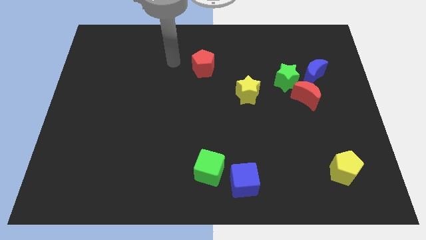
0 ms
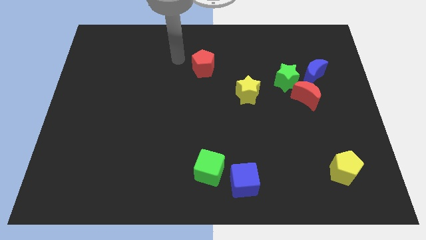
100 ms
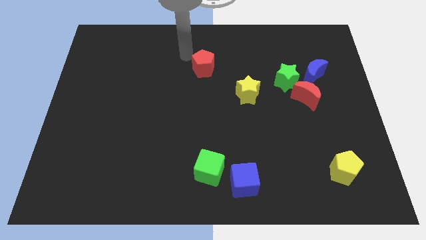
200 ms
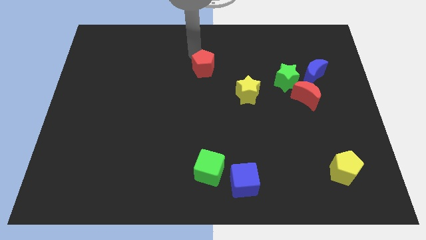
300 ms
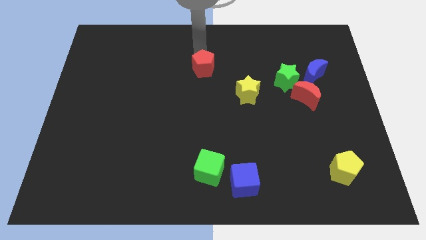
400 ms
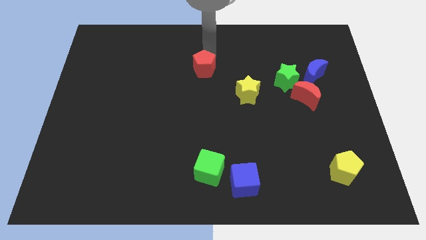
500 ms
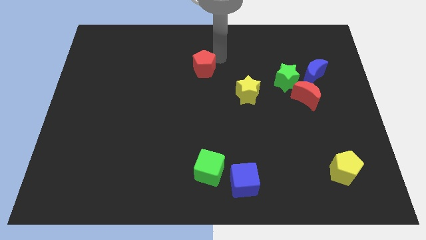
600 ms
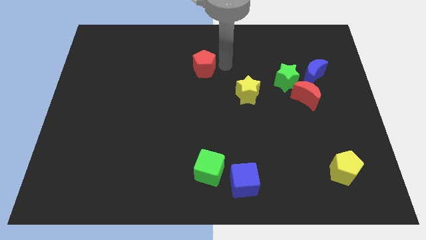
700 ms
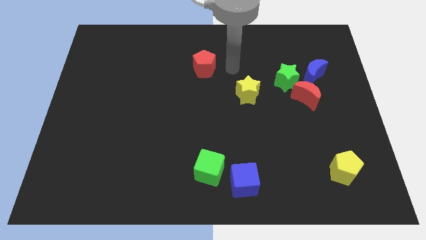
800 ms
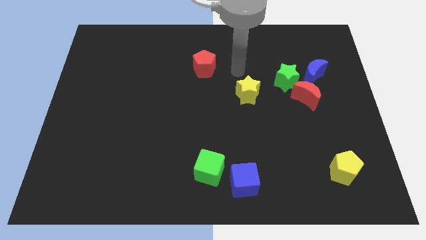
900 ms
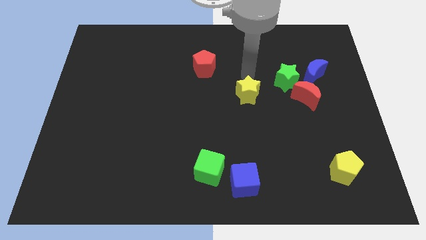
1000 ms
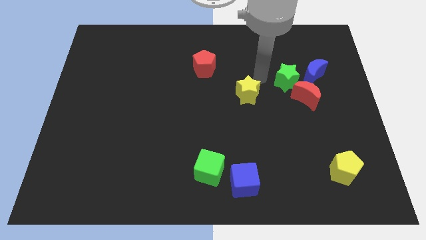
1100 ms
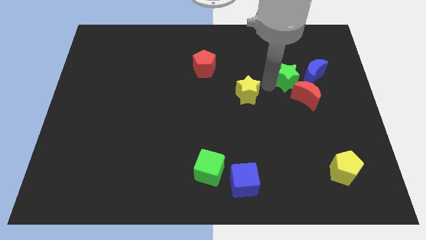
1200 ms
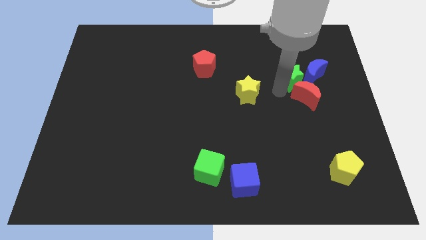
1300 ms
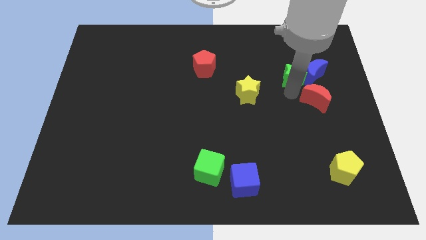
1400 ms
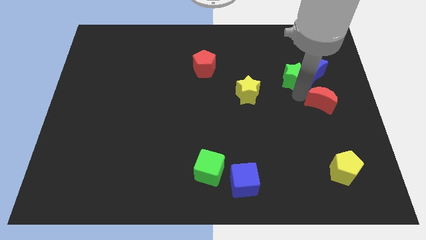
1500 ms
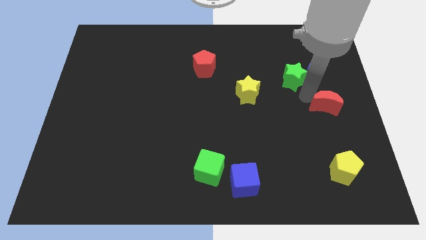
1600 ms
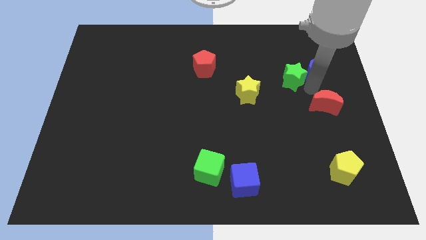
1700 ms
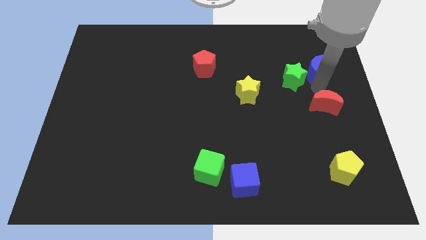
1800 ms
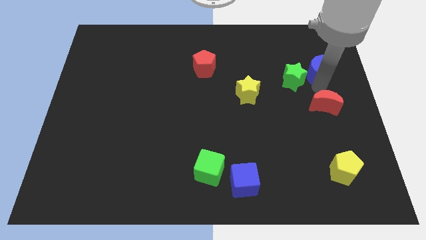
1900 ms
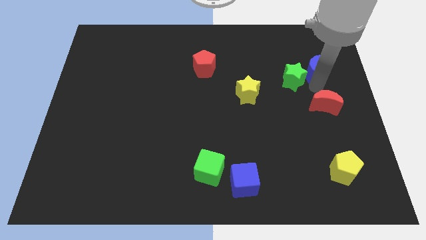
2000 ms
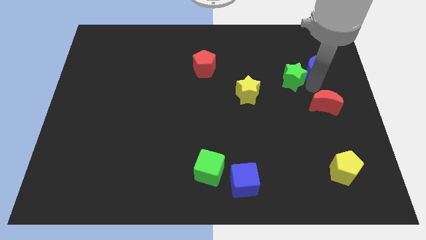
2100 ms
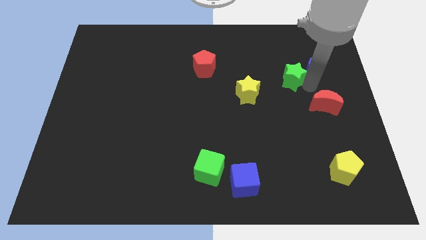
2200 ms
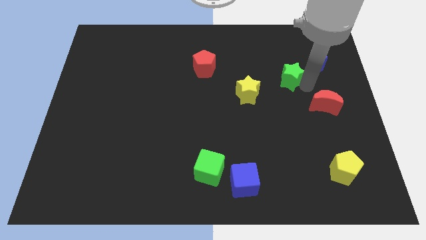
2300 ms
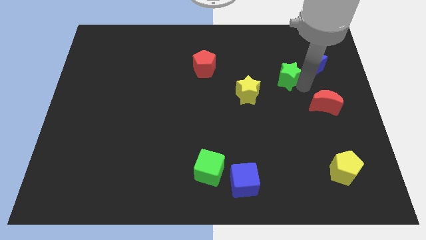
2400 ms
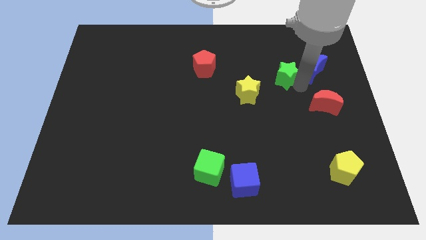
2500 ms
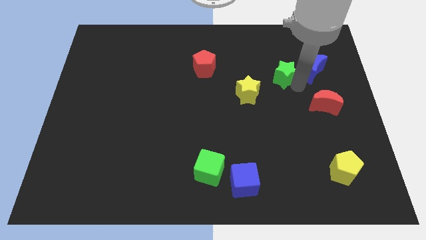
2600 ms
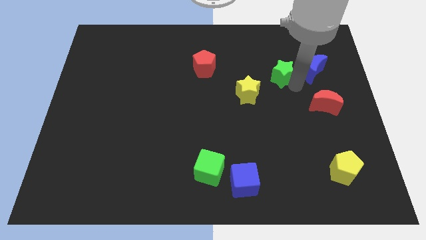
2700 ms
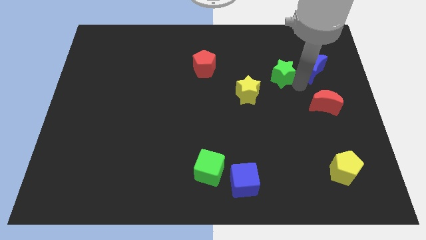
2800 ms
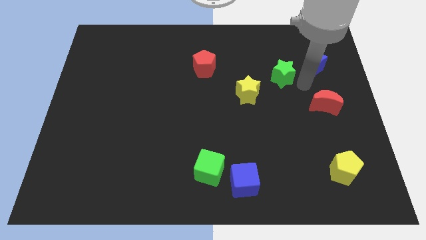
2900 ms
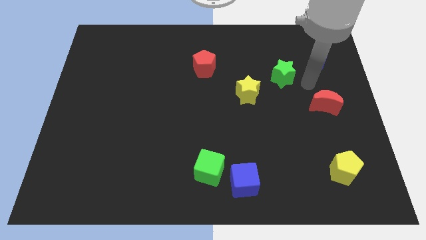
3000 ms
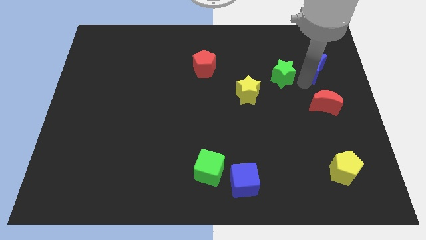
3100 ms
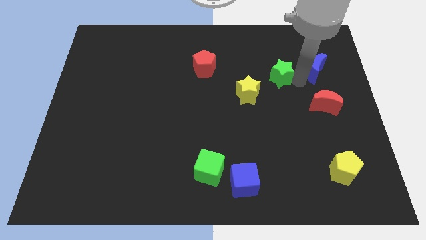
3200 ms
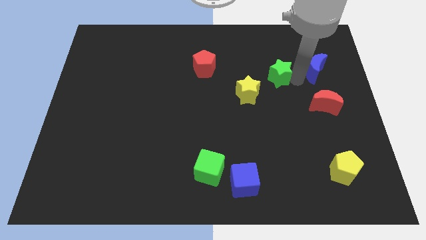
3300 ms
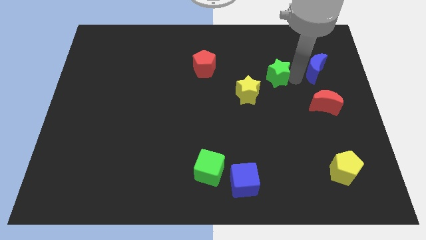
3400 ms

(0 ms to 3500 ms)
separate the green star from the red moon and blue moon

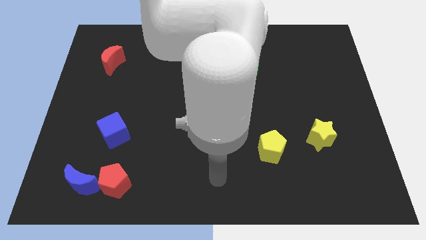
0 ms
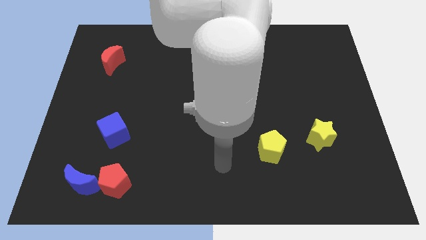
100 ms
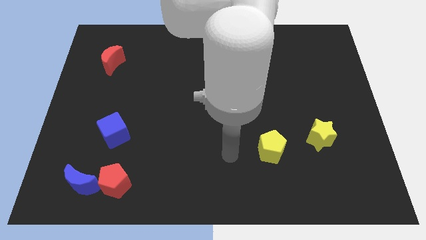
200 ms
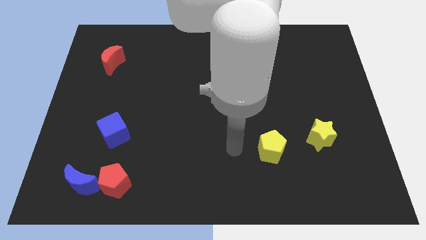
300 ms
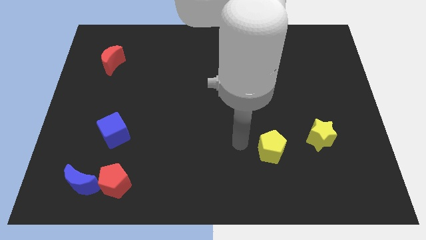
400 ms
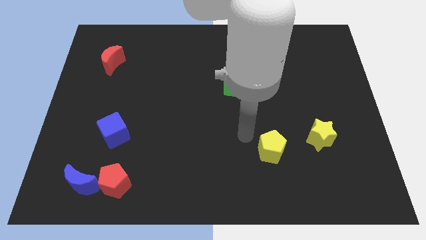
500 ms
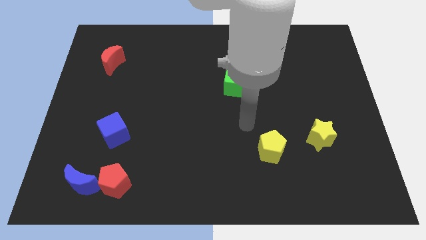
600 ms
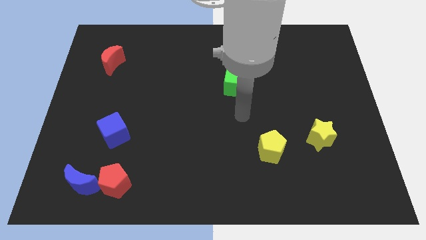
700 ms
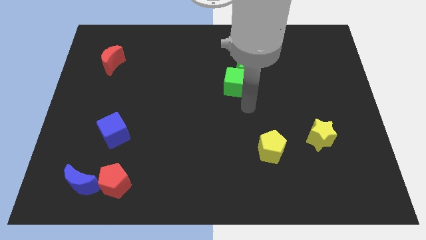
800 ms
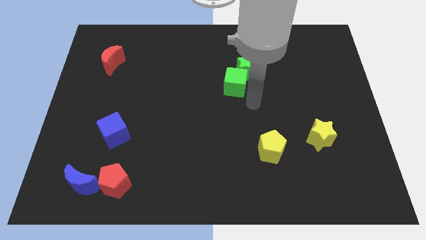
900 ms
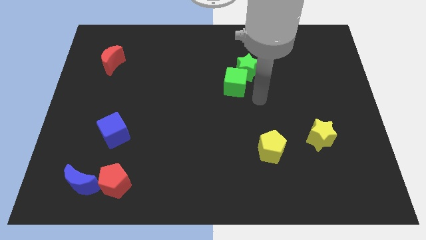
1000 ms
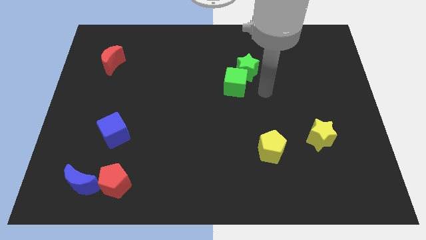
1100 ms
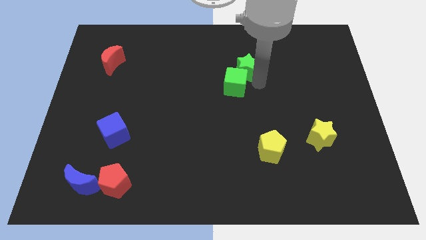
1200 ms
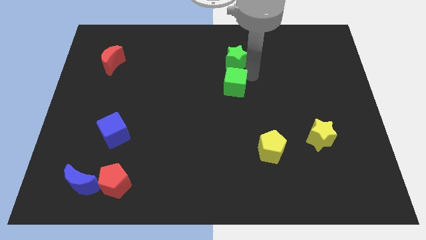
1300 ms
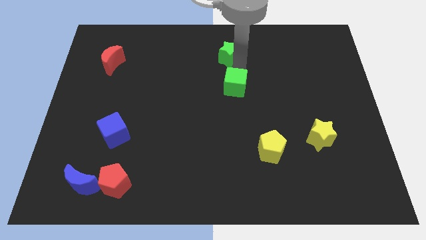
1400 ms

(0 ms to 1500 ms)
pull the green cube apart from the green star

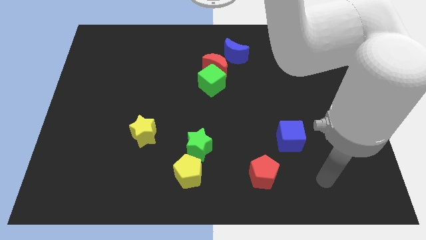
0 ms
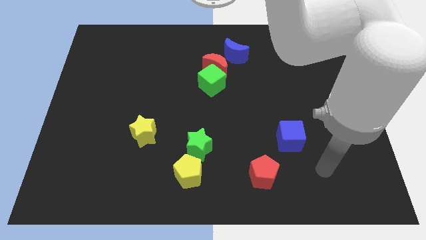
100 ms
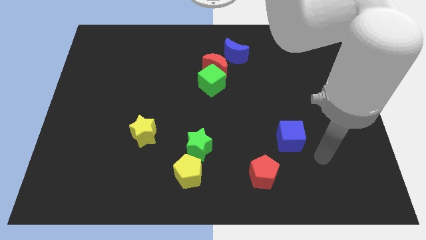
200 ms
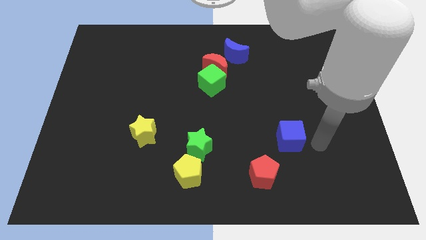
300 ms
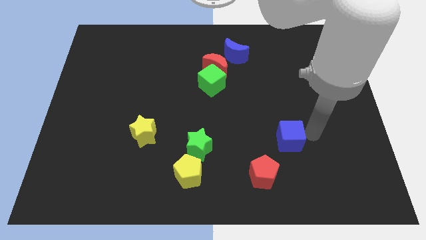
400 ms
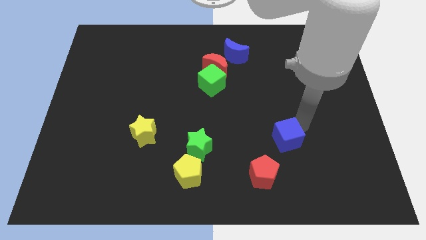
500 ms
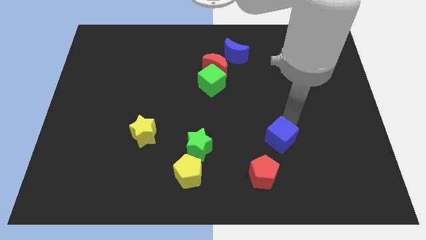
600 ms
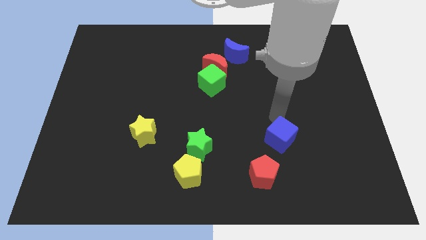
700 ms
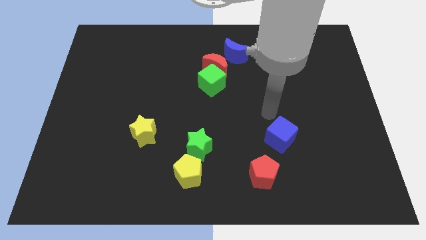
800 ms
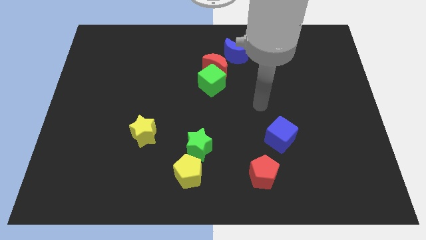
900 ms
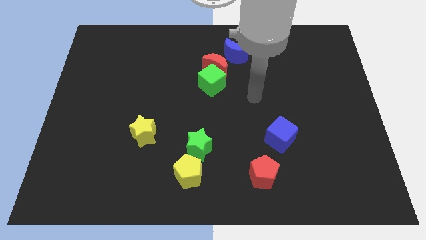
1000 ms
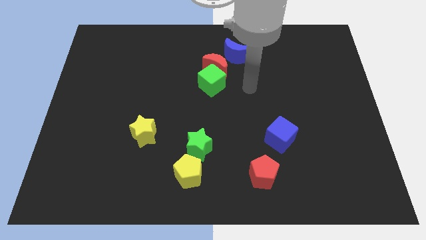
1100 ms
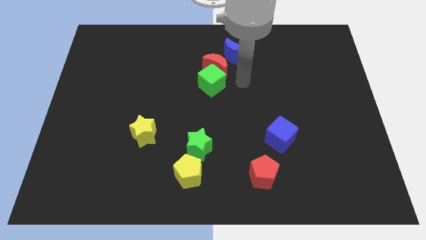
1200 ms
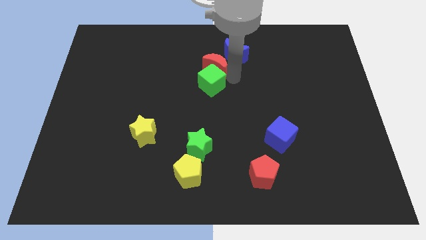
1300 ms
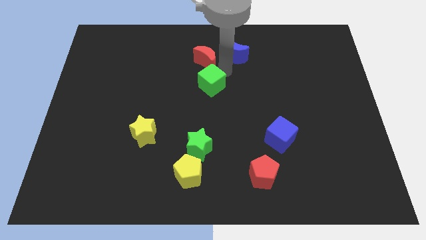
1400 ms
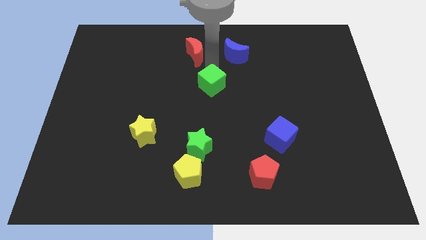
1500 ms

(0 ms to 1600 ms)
separate the green cube from the red moon

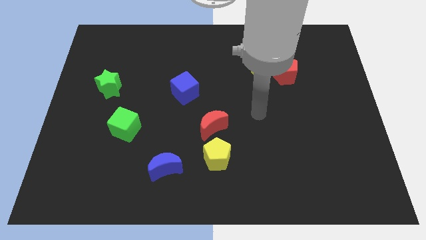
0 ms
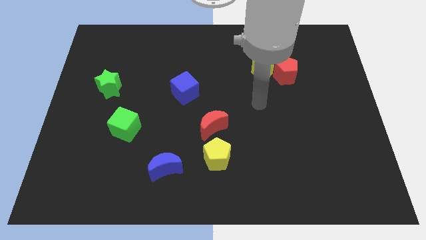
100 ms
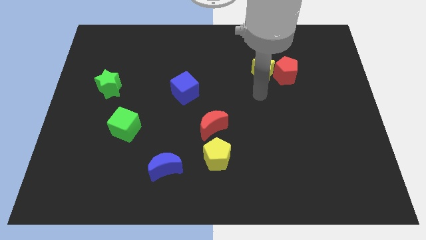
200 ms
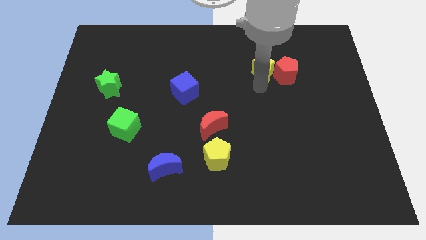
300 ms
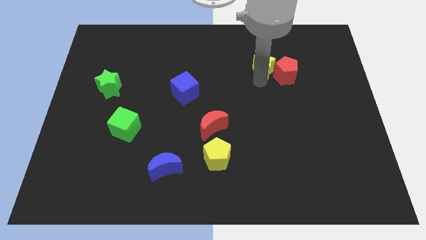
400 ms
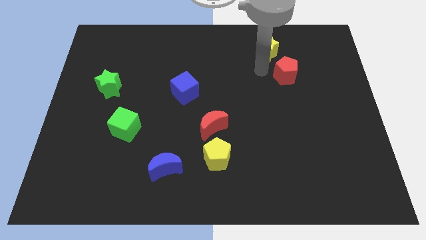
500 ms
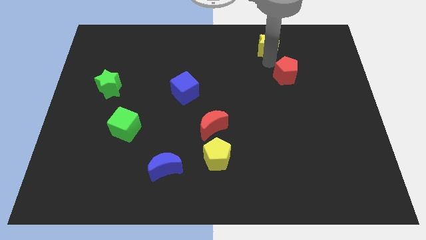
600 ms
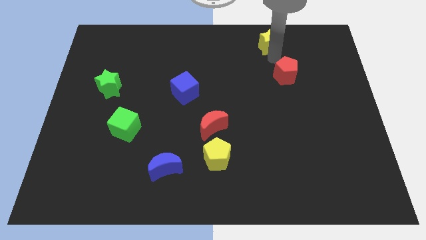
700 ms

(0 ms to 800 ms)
move the red pentagon away from the yellow star

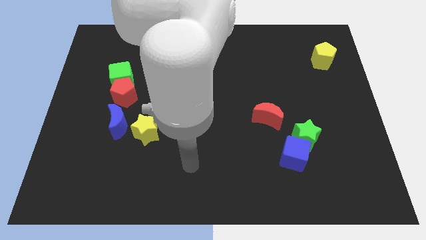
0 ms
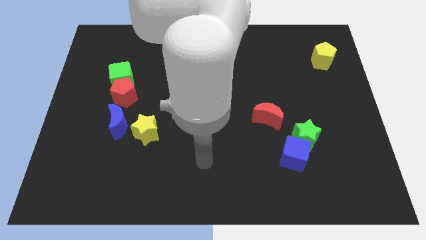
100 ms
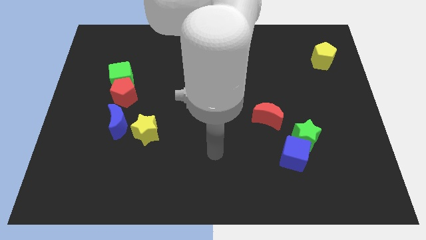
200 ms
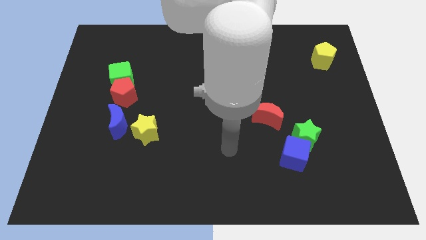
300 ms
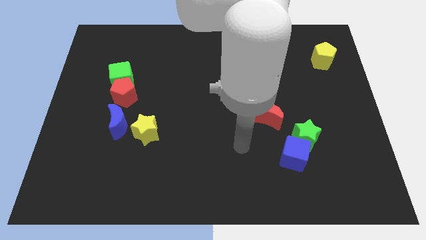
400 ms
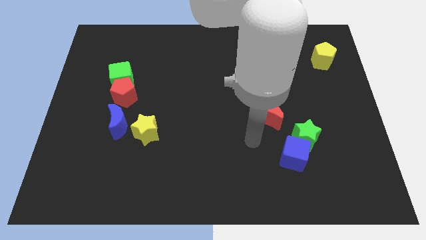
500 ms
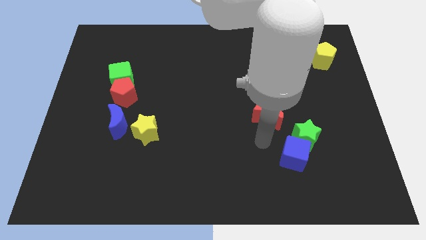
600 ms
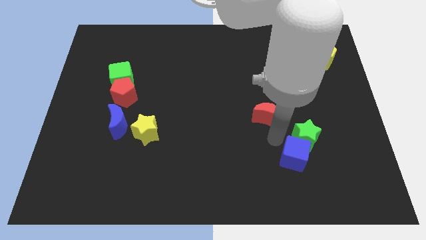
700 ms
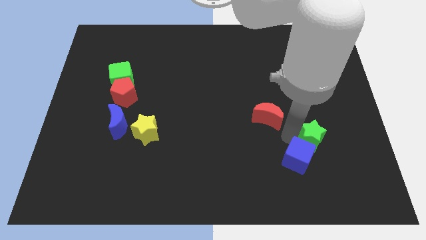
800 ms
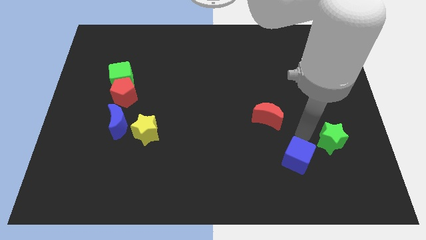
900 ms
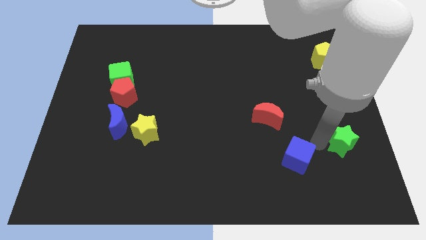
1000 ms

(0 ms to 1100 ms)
pull the blue cube apart from the green star

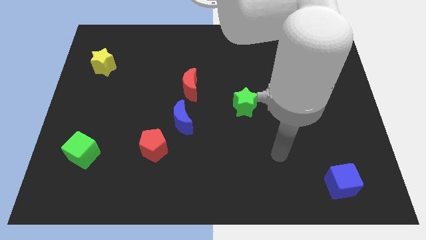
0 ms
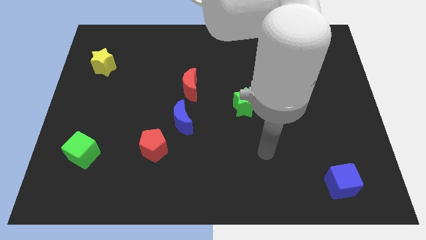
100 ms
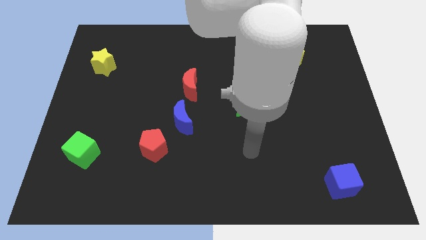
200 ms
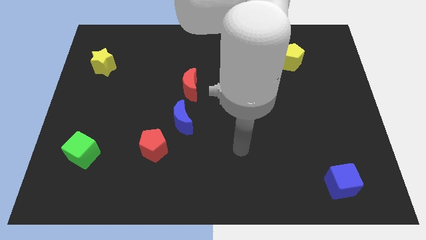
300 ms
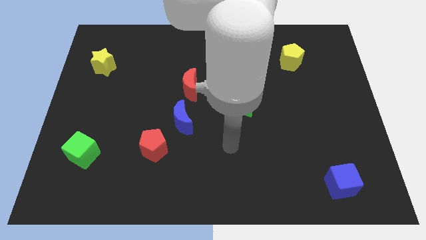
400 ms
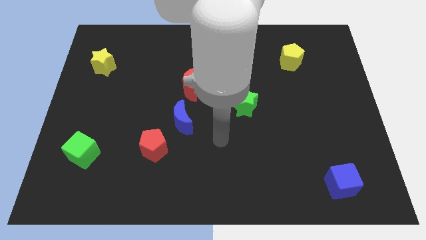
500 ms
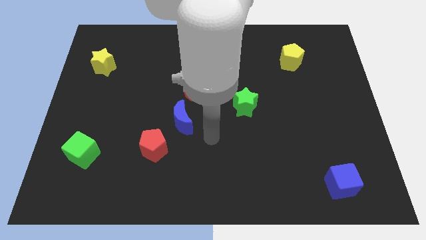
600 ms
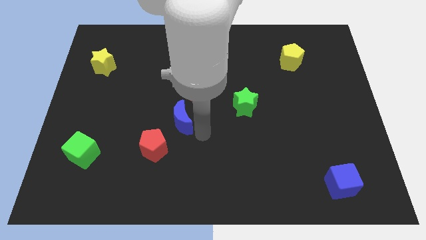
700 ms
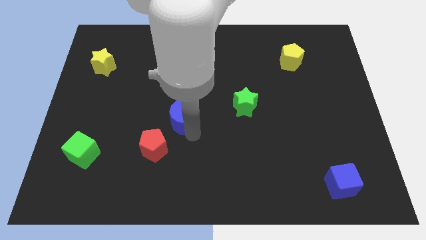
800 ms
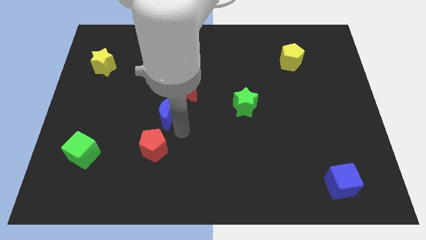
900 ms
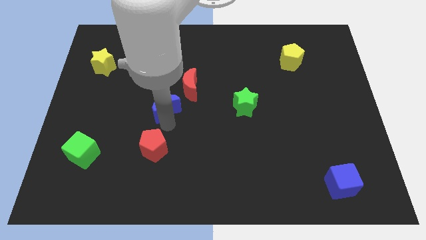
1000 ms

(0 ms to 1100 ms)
move the red pentagon away from the blue moon
